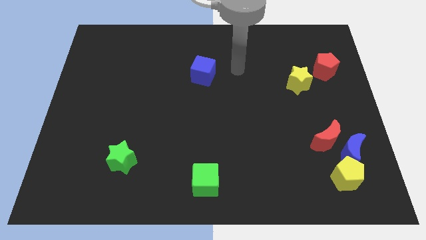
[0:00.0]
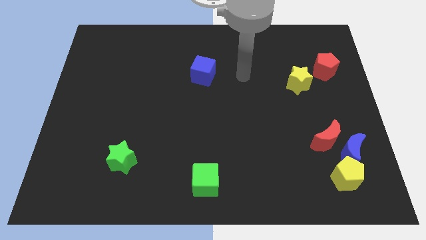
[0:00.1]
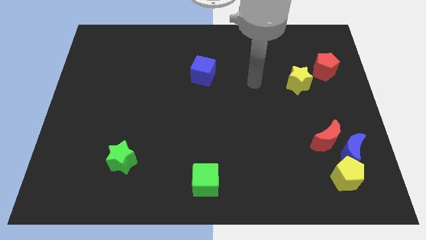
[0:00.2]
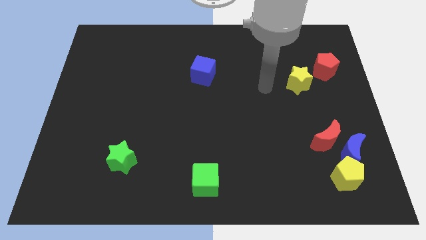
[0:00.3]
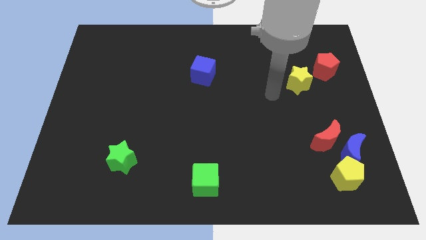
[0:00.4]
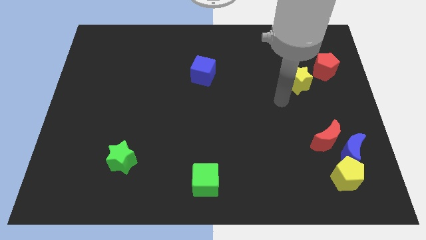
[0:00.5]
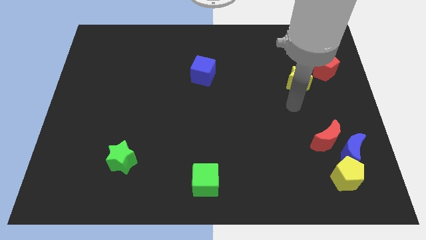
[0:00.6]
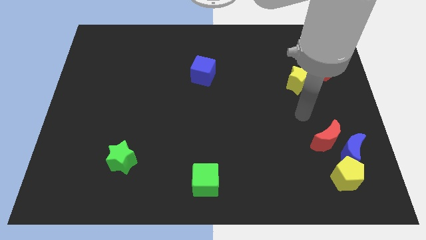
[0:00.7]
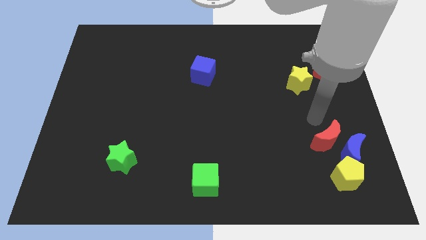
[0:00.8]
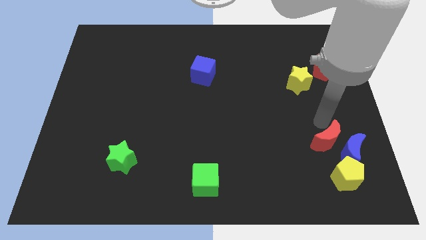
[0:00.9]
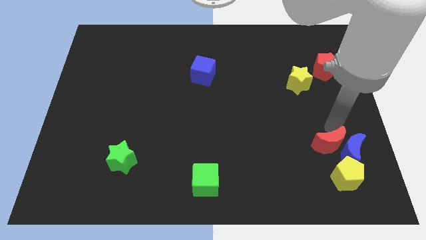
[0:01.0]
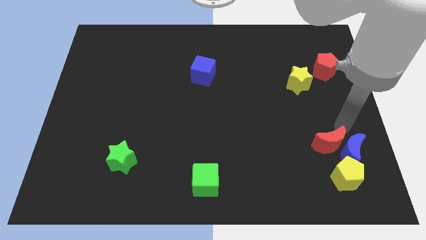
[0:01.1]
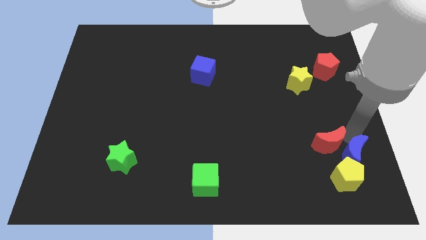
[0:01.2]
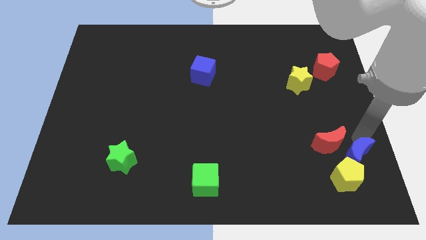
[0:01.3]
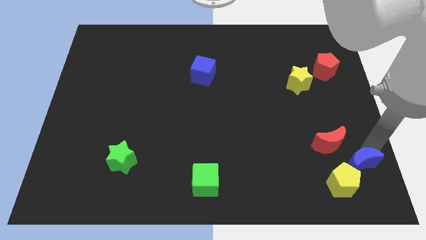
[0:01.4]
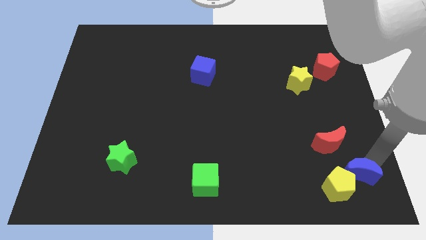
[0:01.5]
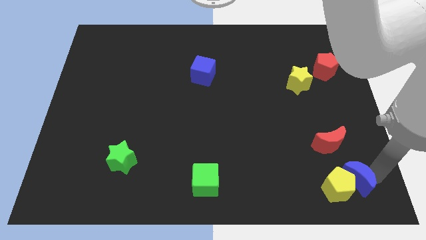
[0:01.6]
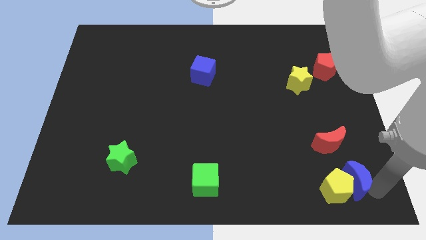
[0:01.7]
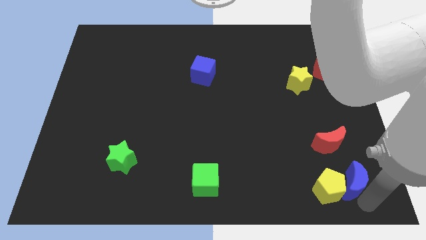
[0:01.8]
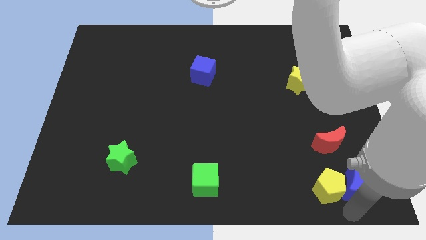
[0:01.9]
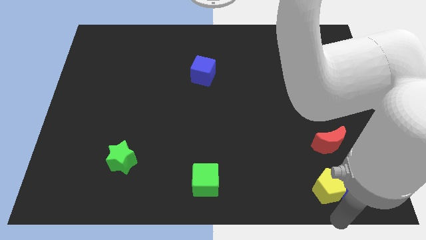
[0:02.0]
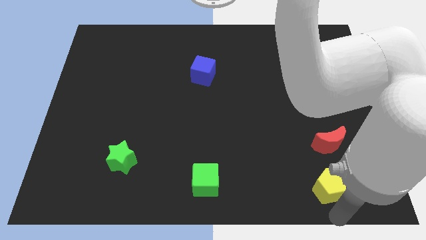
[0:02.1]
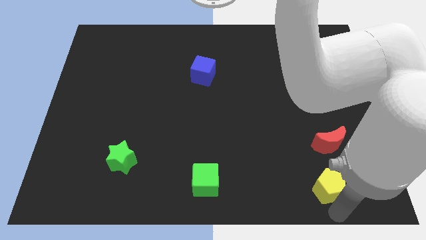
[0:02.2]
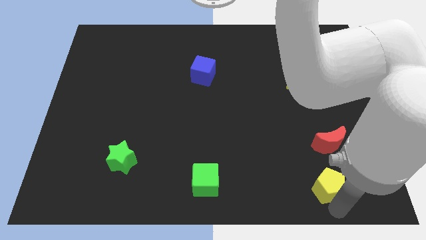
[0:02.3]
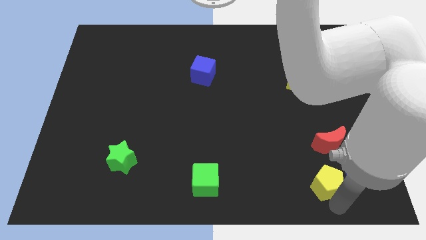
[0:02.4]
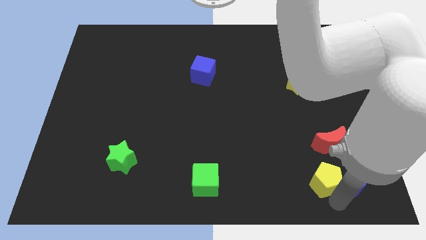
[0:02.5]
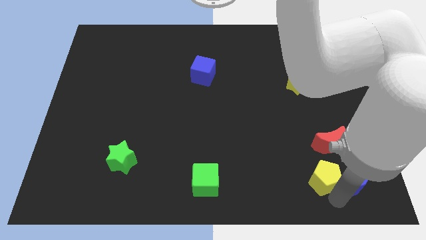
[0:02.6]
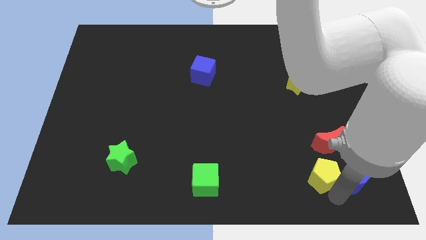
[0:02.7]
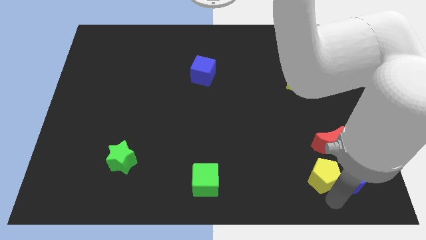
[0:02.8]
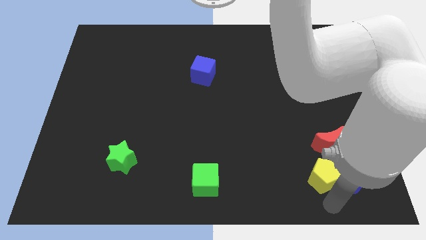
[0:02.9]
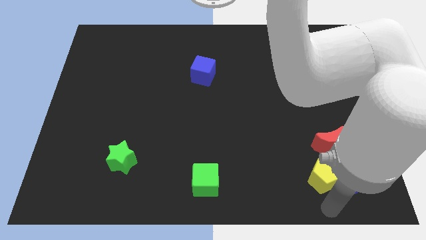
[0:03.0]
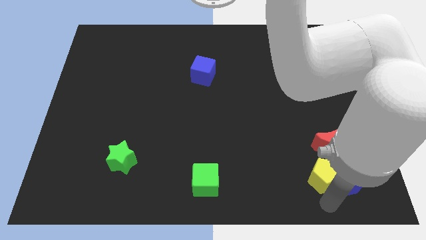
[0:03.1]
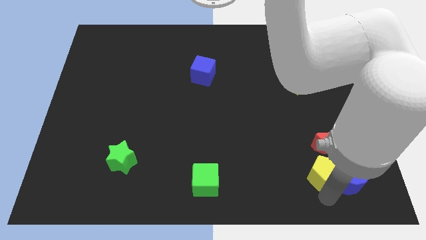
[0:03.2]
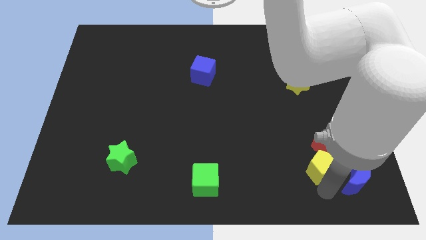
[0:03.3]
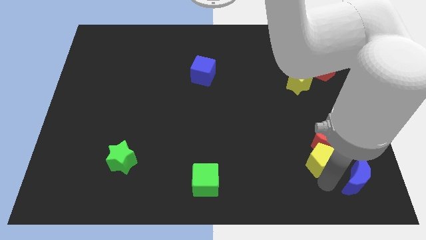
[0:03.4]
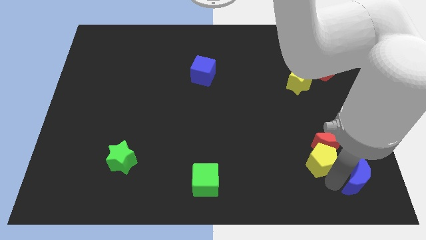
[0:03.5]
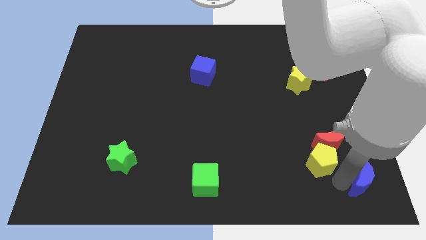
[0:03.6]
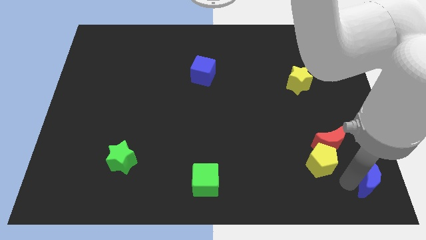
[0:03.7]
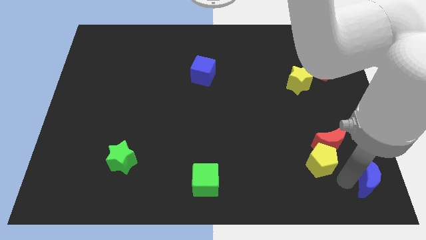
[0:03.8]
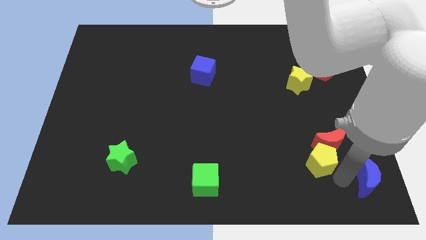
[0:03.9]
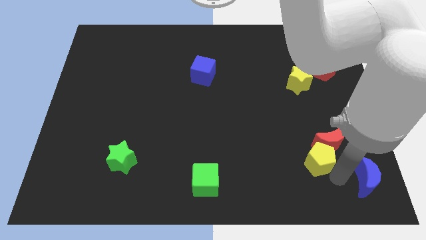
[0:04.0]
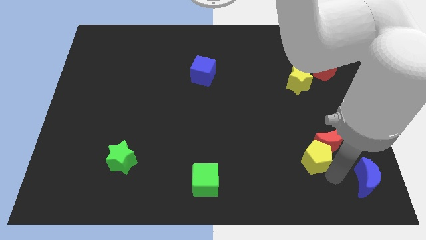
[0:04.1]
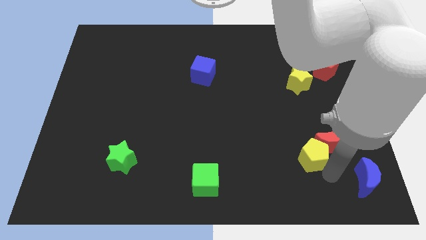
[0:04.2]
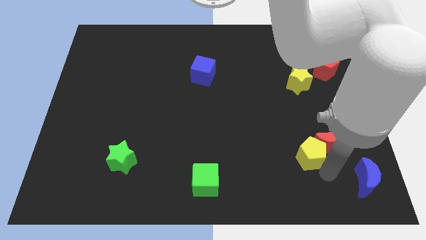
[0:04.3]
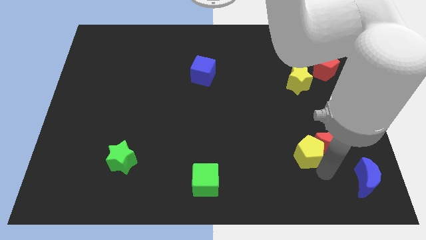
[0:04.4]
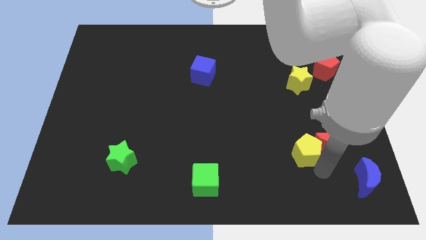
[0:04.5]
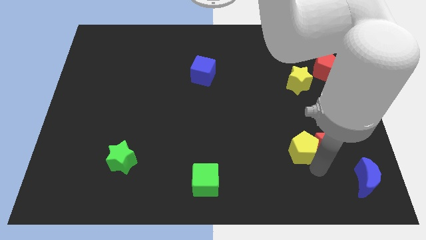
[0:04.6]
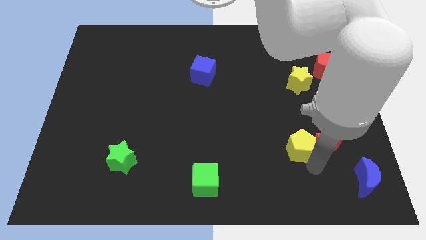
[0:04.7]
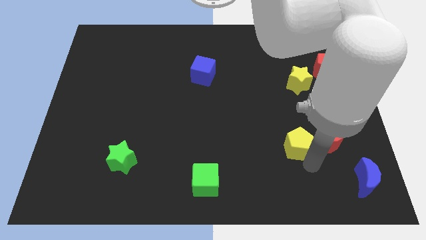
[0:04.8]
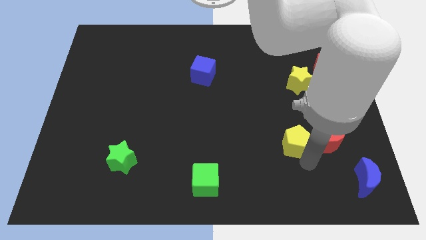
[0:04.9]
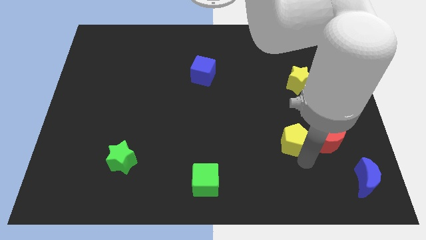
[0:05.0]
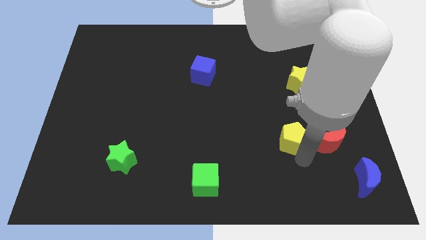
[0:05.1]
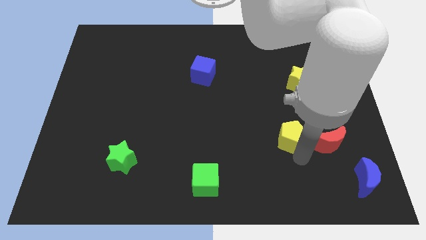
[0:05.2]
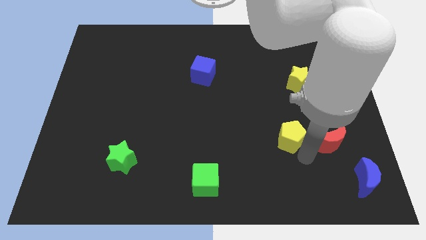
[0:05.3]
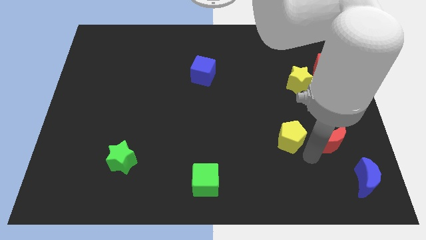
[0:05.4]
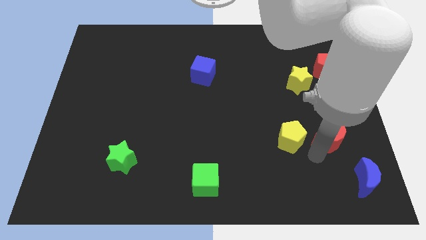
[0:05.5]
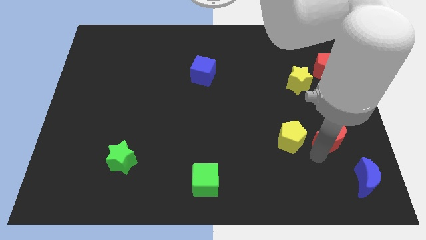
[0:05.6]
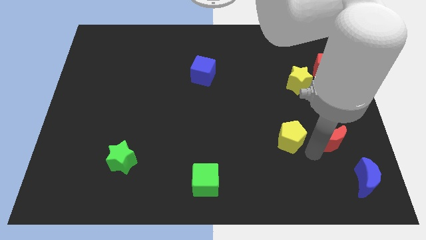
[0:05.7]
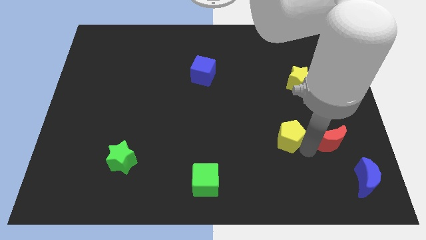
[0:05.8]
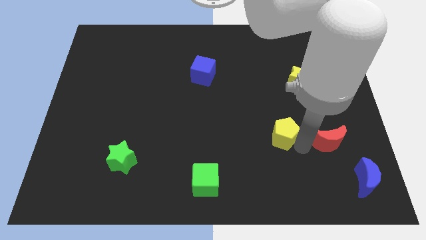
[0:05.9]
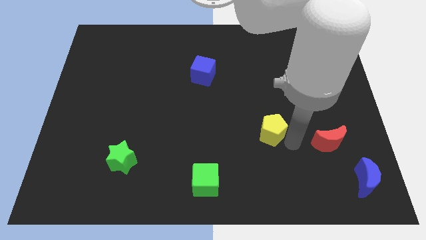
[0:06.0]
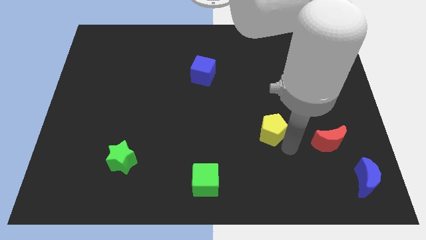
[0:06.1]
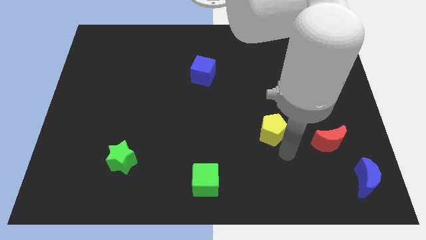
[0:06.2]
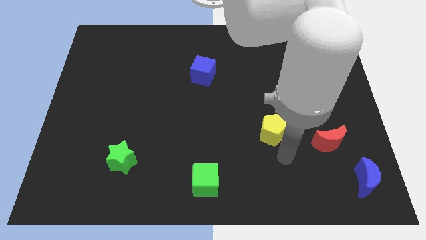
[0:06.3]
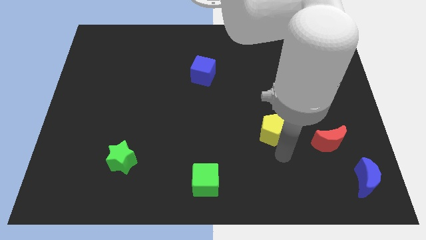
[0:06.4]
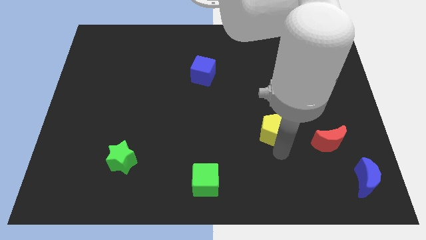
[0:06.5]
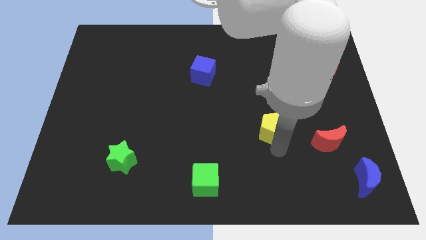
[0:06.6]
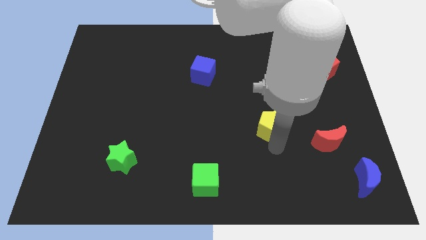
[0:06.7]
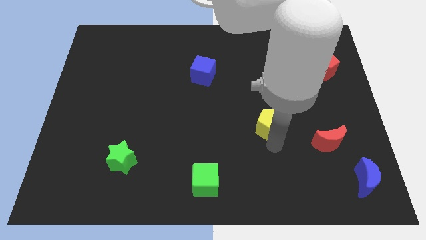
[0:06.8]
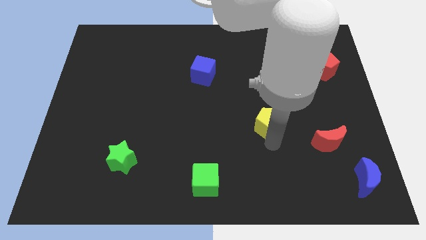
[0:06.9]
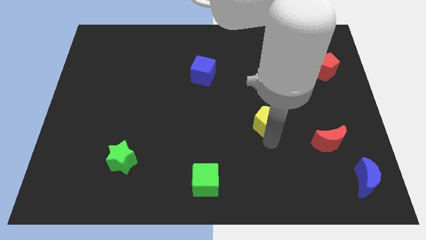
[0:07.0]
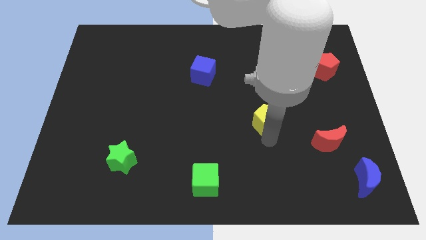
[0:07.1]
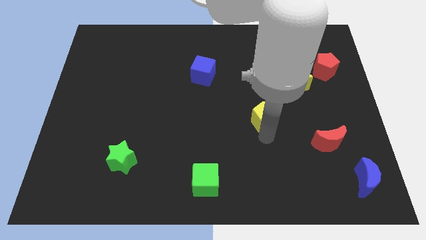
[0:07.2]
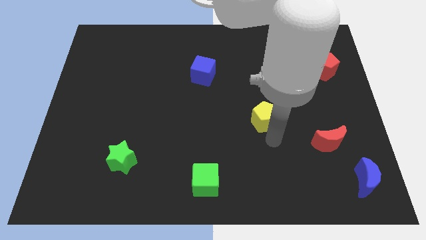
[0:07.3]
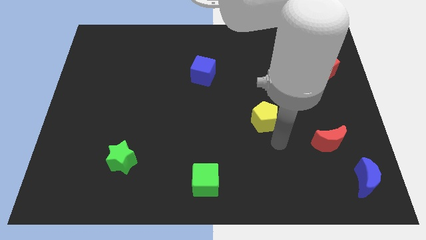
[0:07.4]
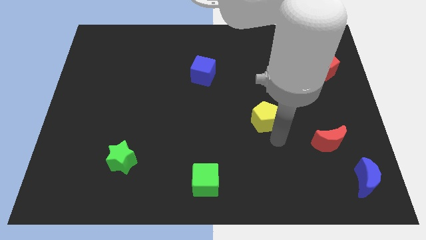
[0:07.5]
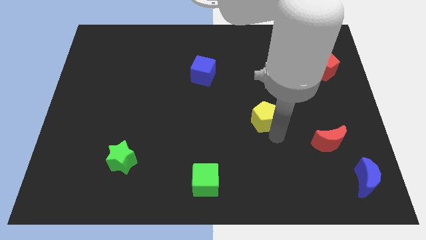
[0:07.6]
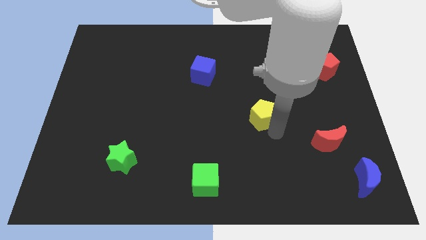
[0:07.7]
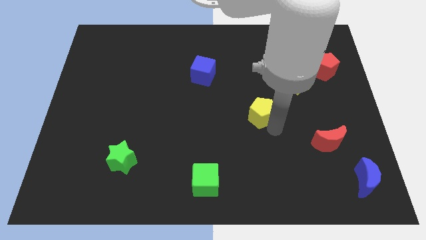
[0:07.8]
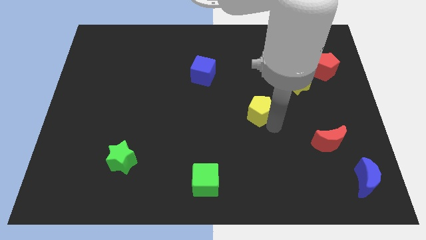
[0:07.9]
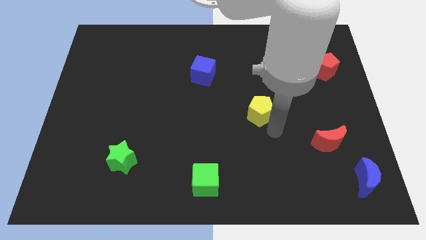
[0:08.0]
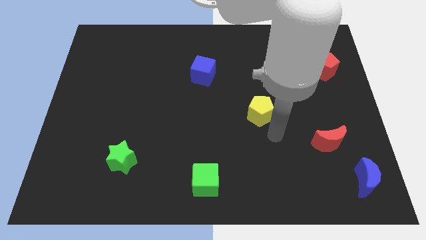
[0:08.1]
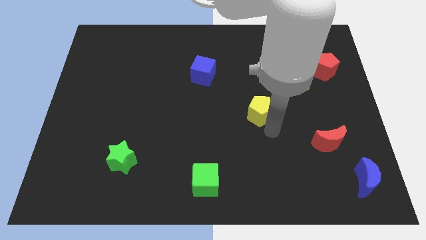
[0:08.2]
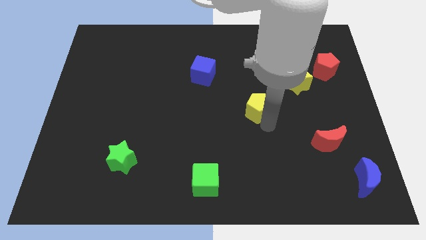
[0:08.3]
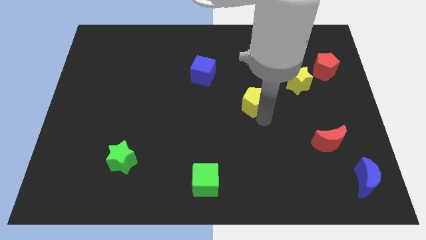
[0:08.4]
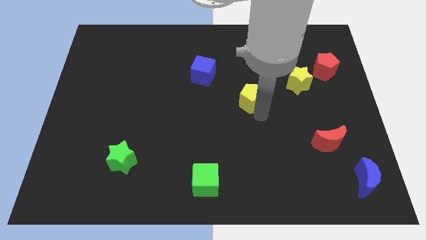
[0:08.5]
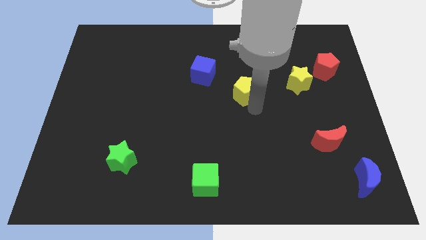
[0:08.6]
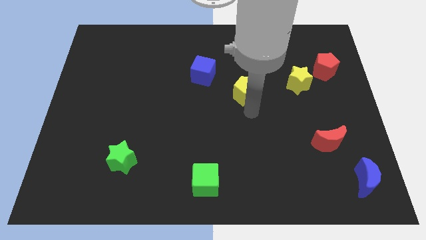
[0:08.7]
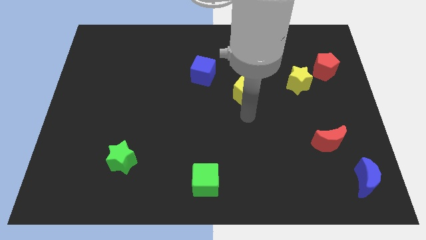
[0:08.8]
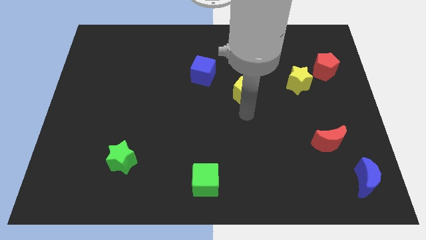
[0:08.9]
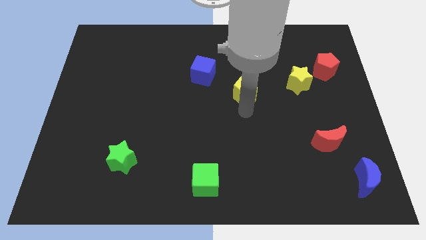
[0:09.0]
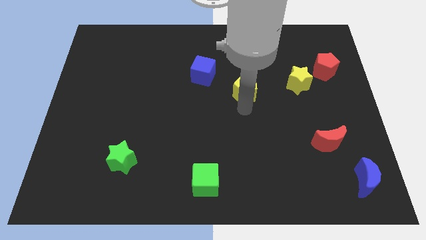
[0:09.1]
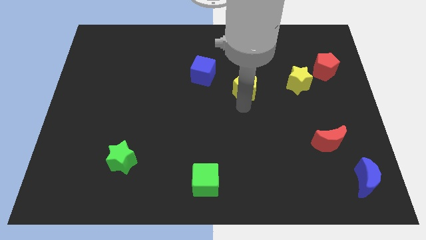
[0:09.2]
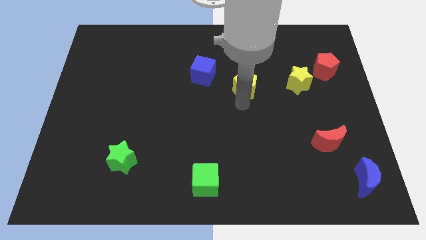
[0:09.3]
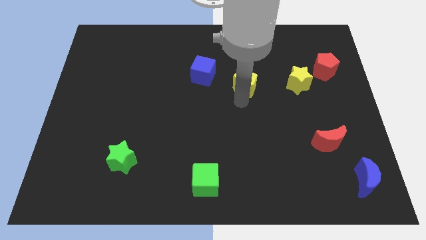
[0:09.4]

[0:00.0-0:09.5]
put the yellow pentagon just right of the blue cube
